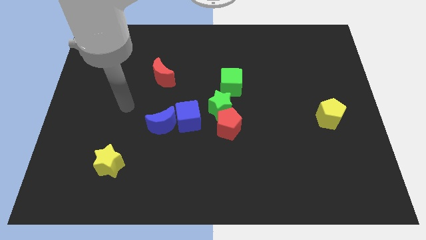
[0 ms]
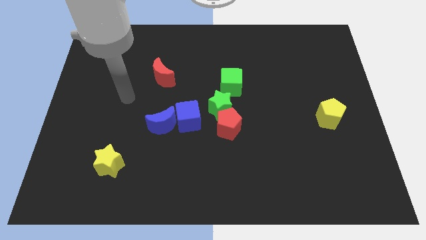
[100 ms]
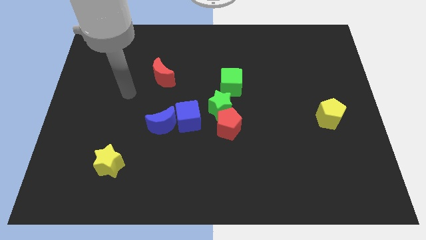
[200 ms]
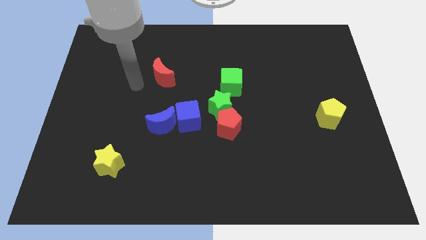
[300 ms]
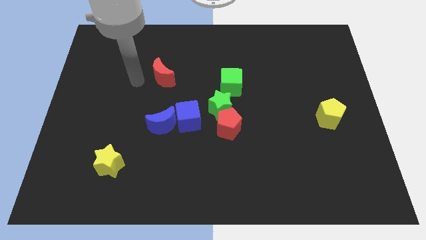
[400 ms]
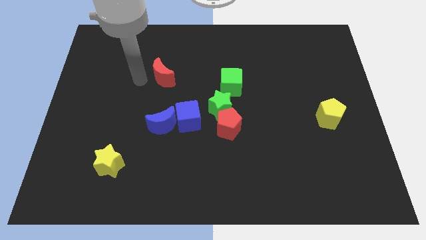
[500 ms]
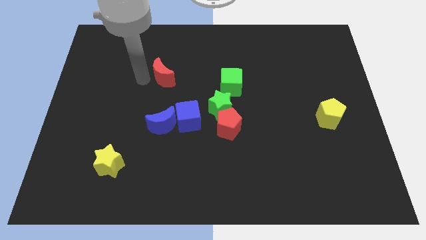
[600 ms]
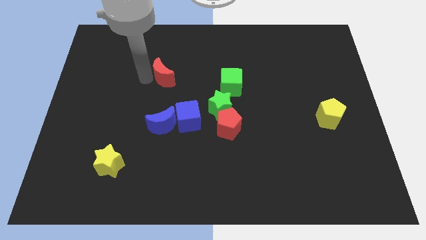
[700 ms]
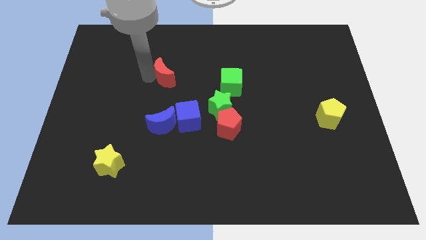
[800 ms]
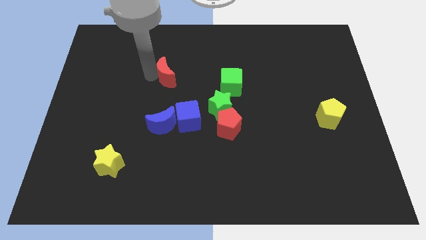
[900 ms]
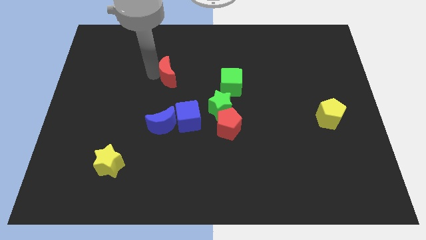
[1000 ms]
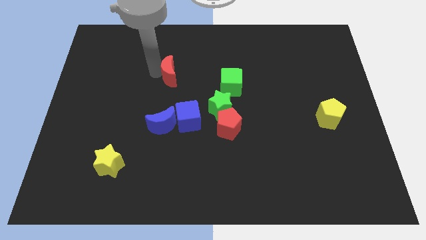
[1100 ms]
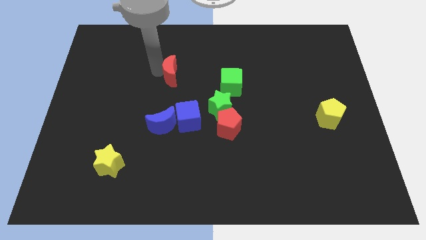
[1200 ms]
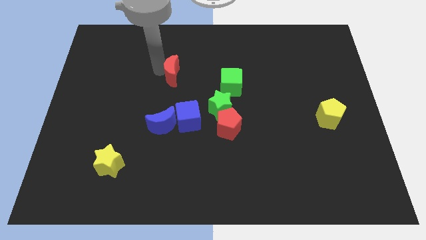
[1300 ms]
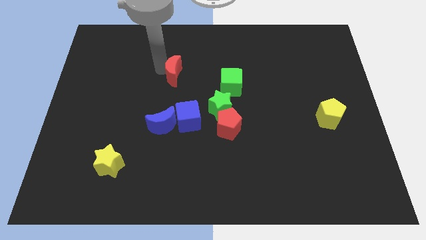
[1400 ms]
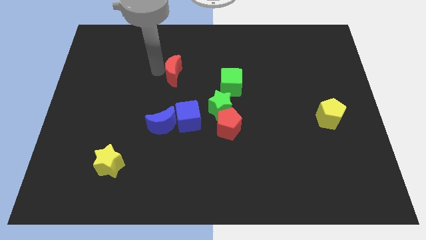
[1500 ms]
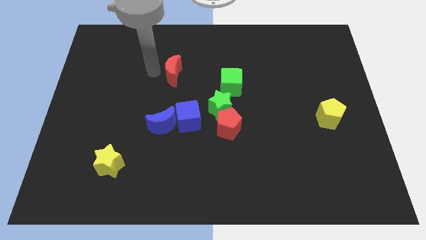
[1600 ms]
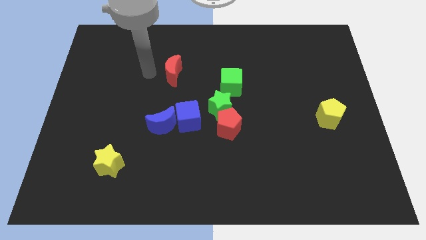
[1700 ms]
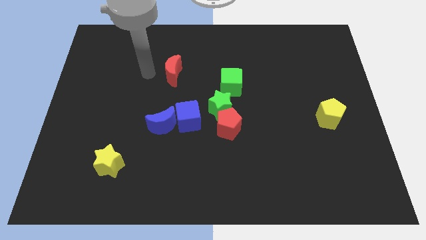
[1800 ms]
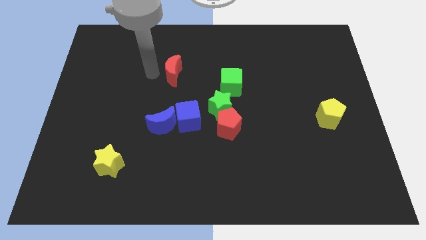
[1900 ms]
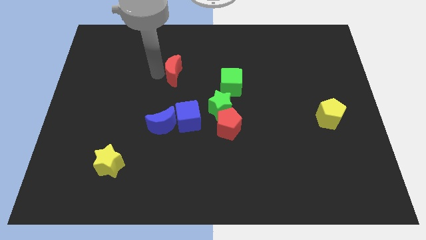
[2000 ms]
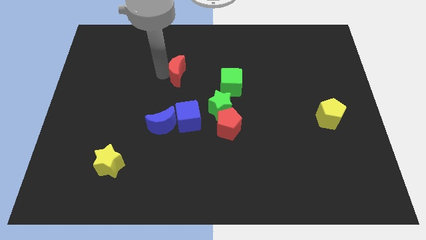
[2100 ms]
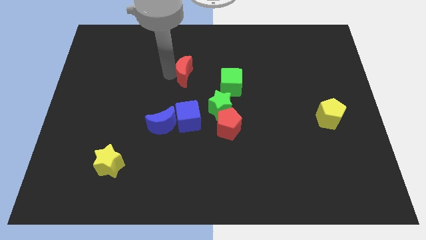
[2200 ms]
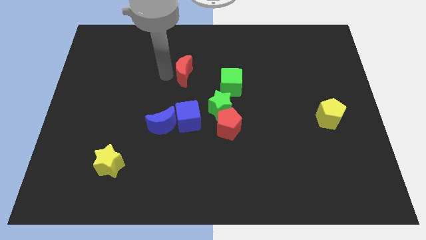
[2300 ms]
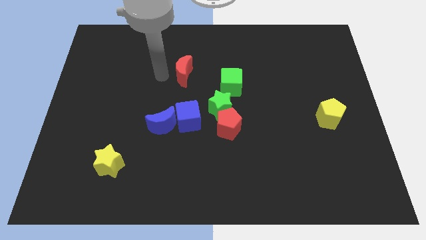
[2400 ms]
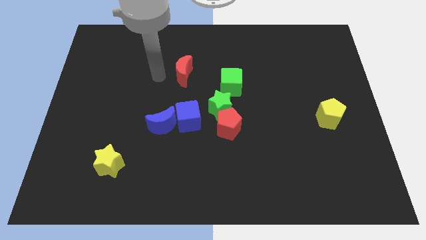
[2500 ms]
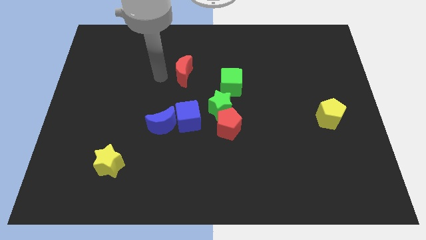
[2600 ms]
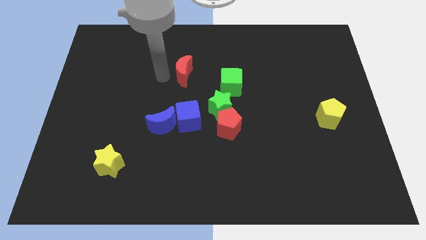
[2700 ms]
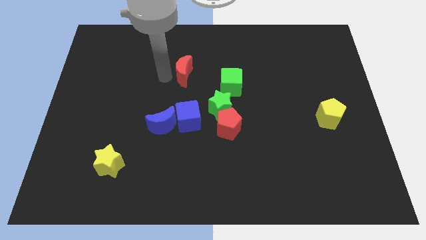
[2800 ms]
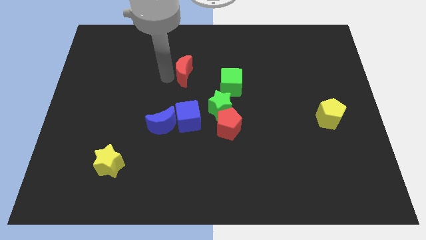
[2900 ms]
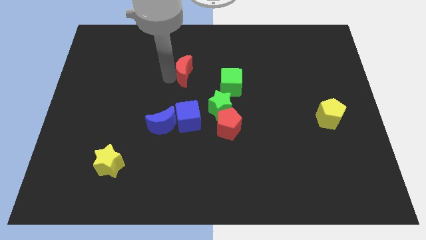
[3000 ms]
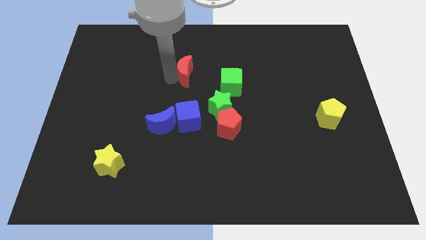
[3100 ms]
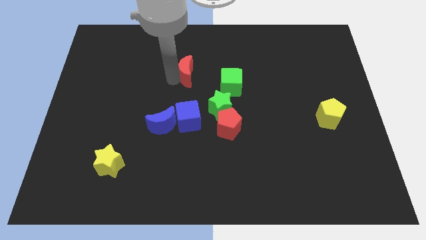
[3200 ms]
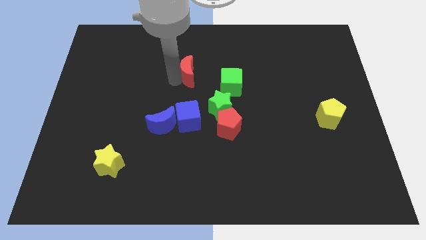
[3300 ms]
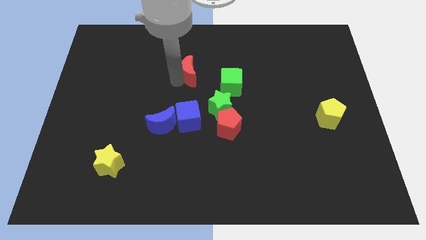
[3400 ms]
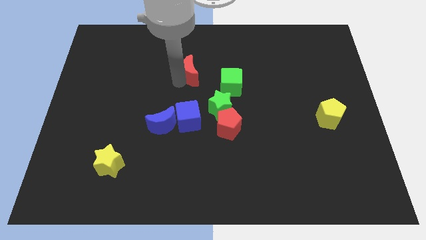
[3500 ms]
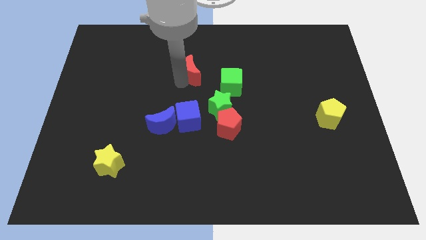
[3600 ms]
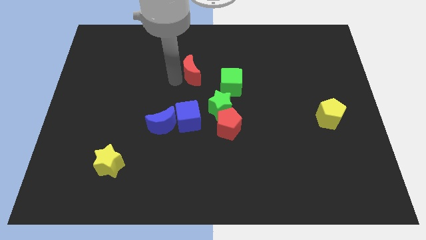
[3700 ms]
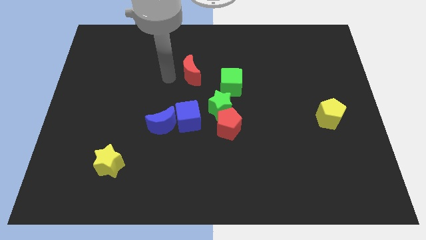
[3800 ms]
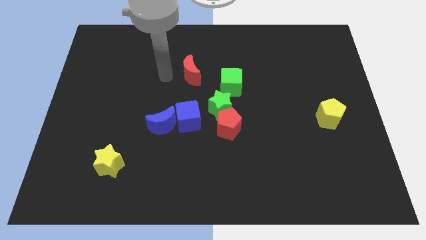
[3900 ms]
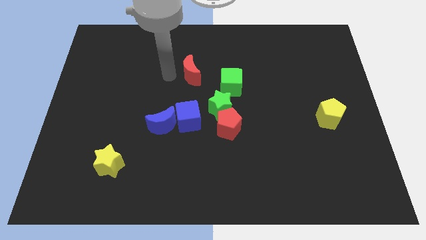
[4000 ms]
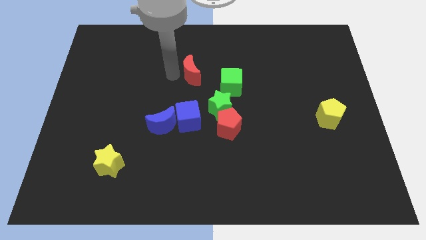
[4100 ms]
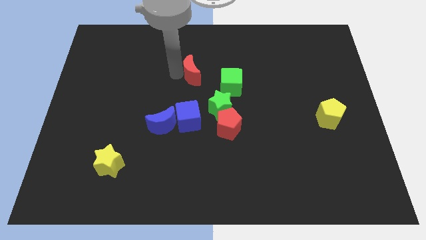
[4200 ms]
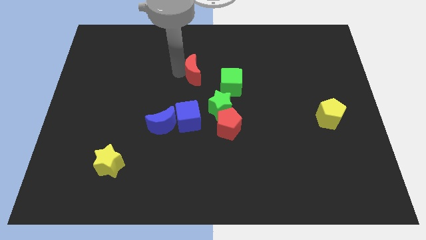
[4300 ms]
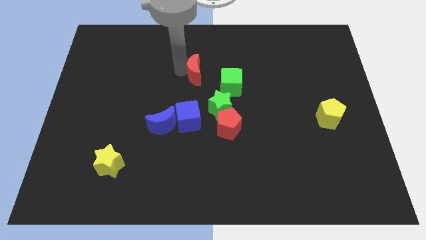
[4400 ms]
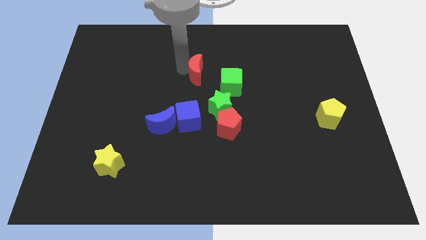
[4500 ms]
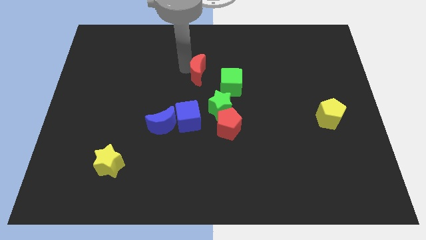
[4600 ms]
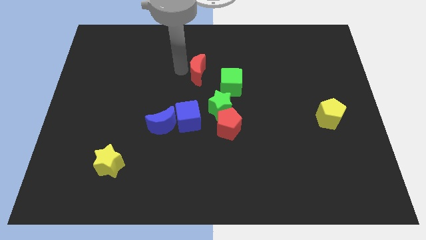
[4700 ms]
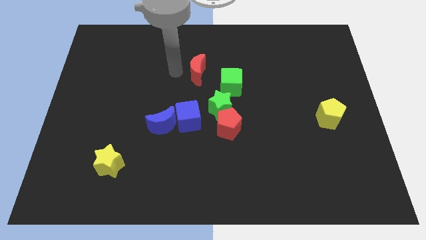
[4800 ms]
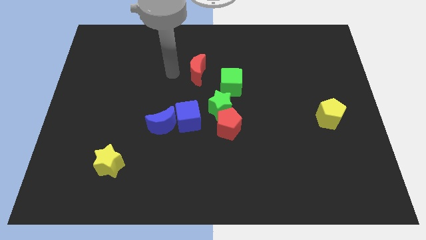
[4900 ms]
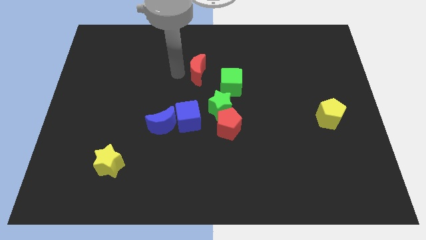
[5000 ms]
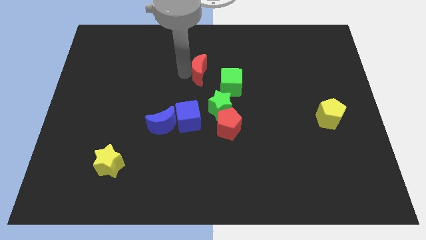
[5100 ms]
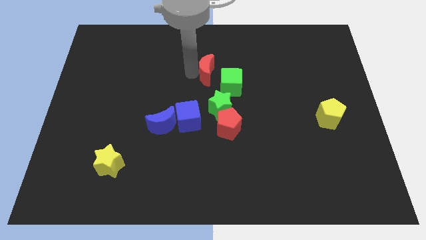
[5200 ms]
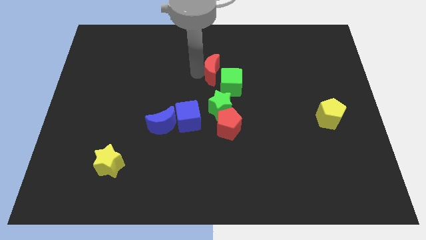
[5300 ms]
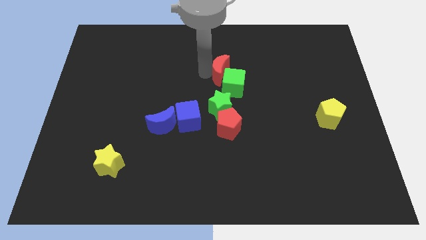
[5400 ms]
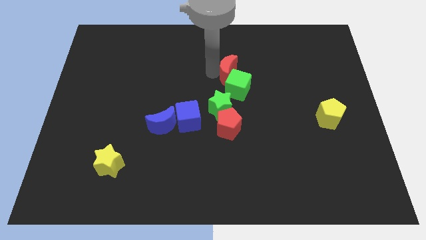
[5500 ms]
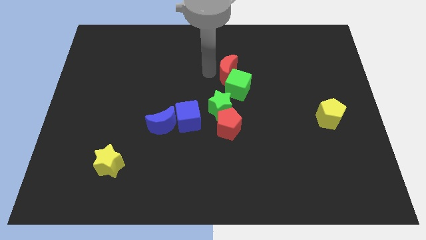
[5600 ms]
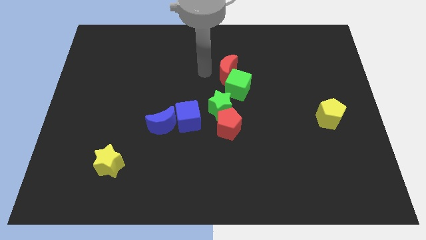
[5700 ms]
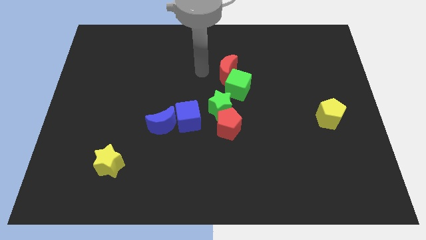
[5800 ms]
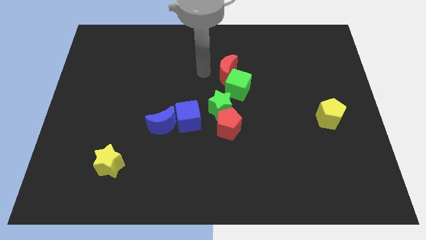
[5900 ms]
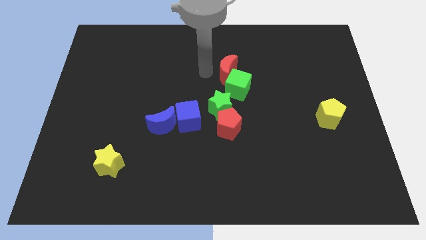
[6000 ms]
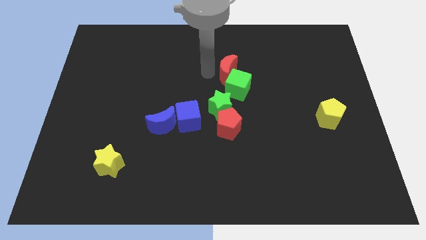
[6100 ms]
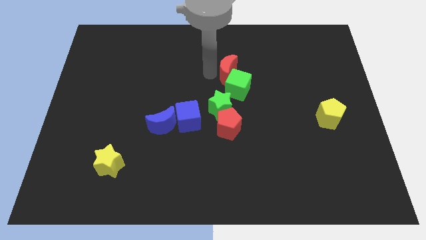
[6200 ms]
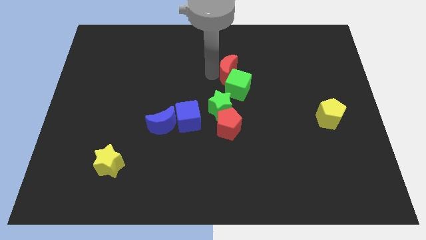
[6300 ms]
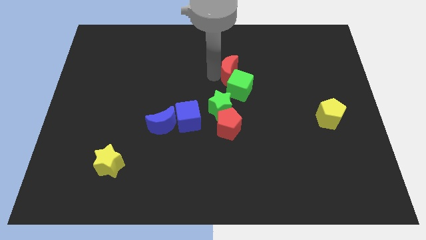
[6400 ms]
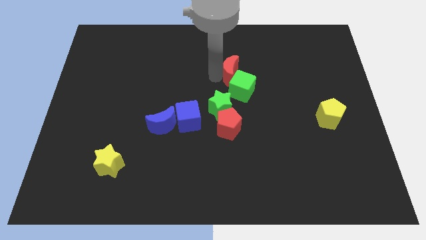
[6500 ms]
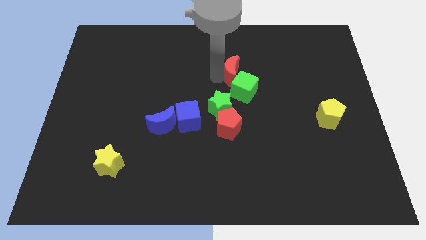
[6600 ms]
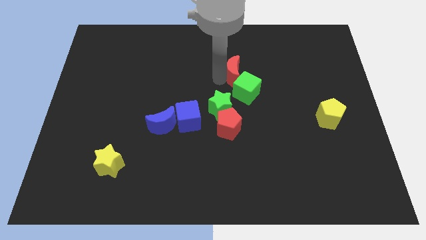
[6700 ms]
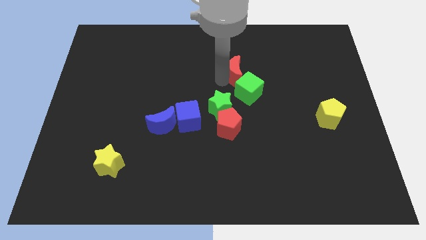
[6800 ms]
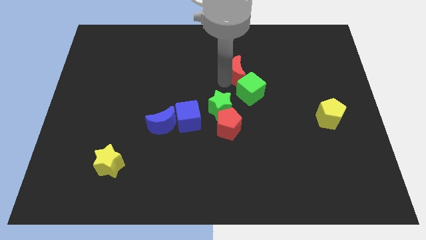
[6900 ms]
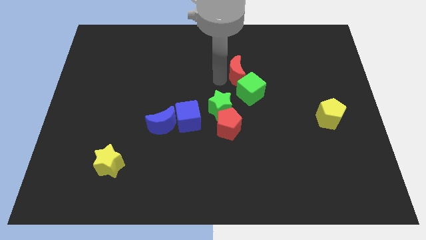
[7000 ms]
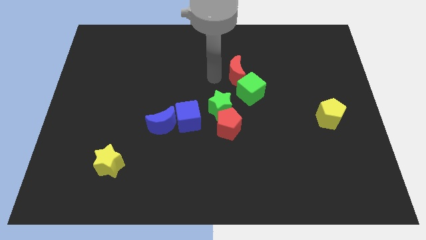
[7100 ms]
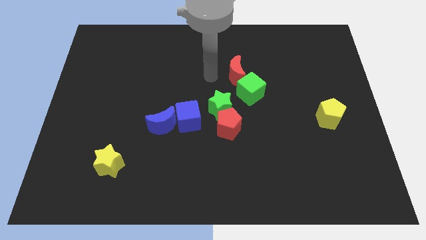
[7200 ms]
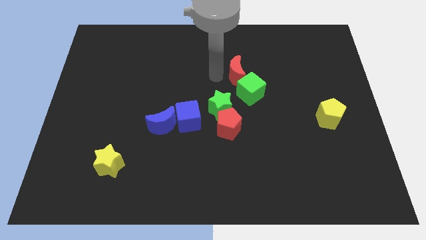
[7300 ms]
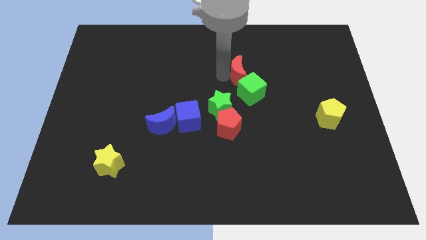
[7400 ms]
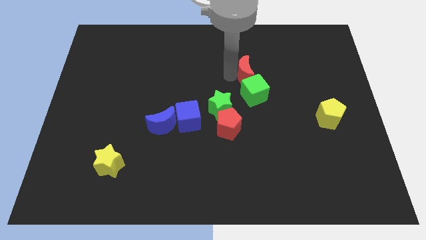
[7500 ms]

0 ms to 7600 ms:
move the red moon to the right

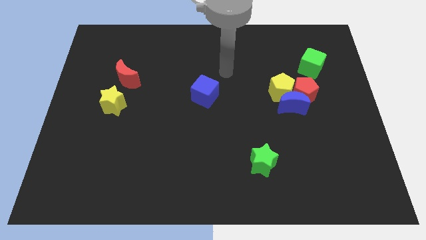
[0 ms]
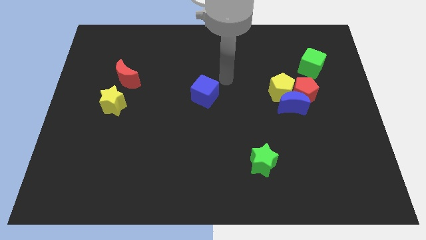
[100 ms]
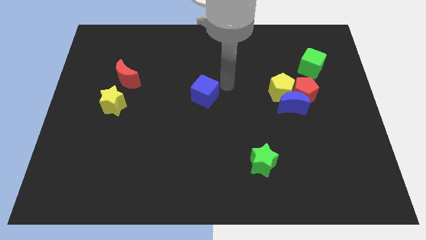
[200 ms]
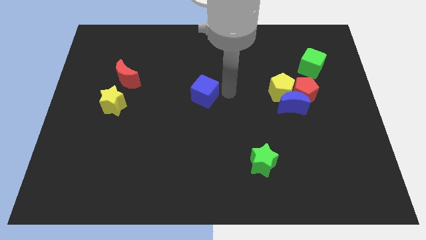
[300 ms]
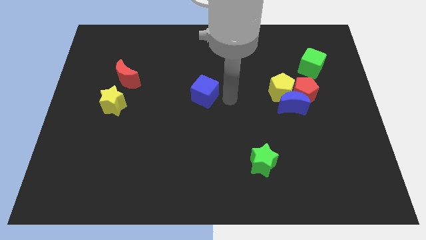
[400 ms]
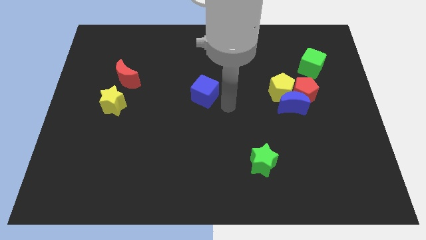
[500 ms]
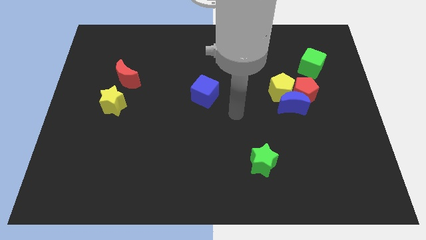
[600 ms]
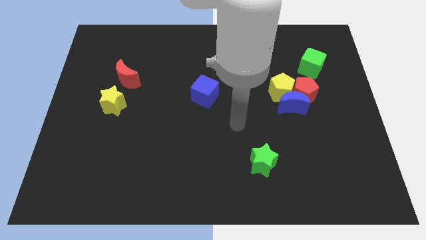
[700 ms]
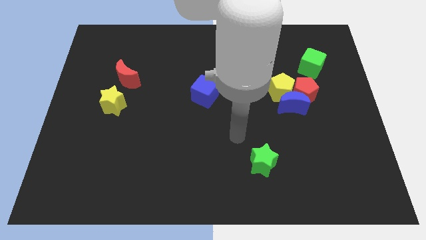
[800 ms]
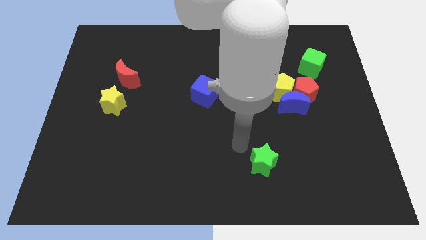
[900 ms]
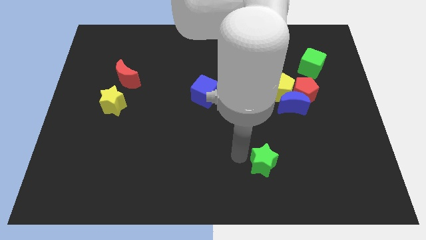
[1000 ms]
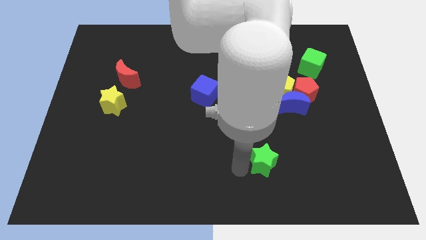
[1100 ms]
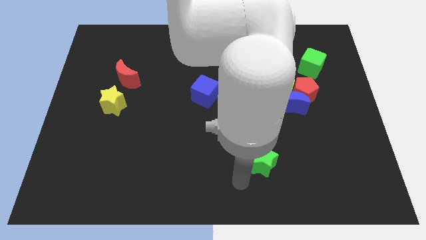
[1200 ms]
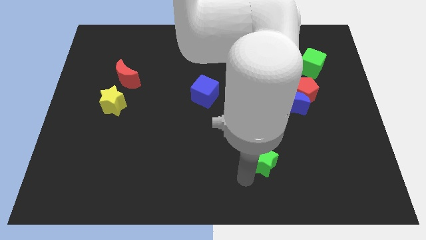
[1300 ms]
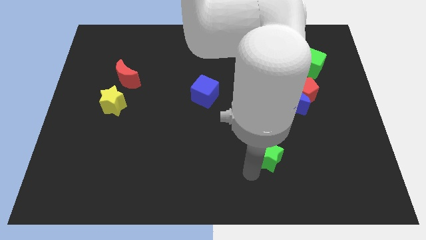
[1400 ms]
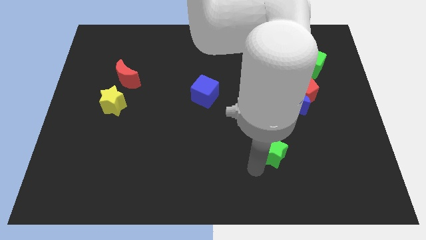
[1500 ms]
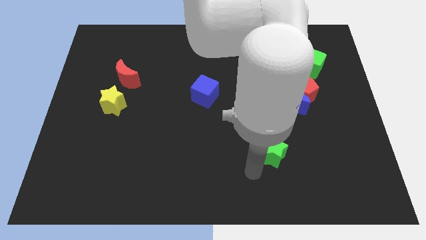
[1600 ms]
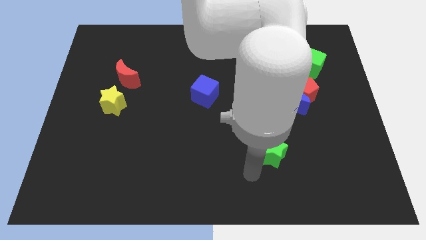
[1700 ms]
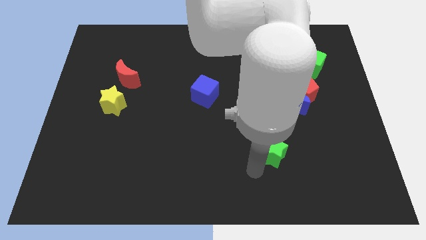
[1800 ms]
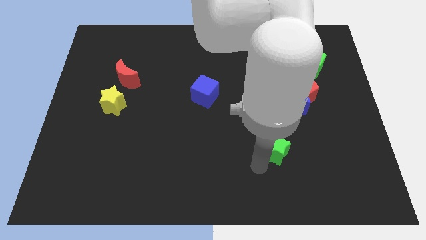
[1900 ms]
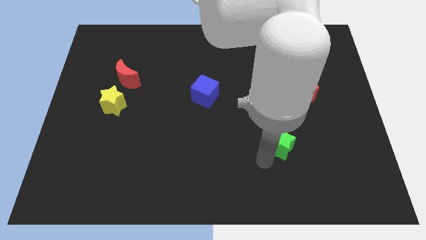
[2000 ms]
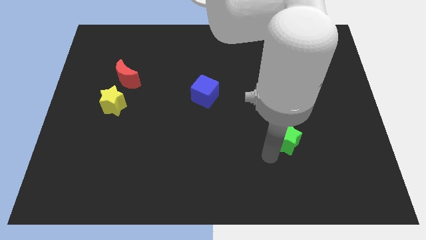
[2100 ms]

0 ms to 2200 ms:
slightly move the green star upwards and right
